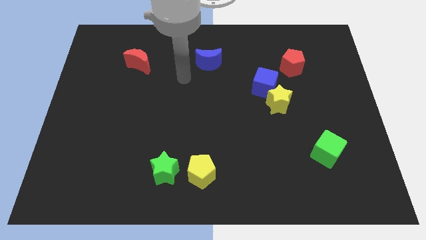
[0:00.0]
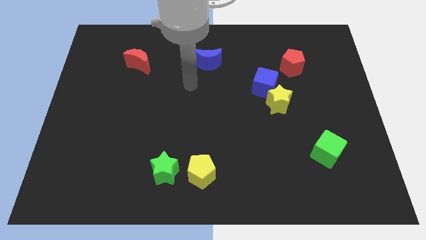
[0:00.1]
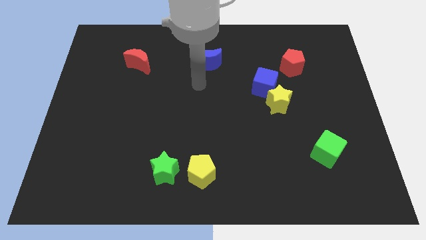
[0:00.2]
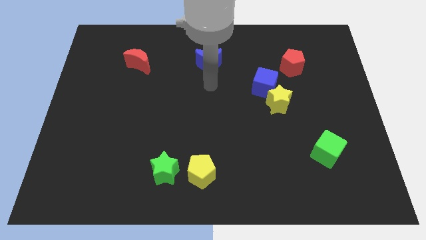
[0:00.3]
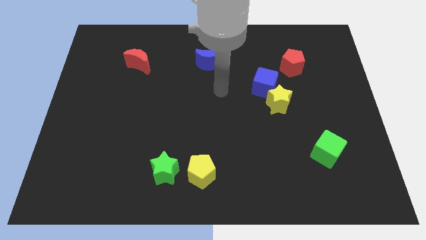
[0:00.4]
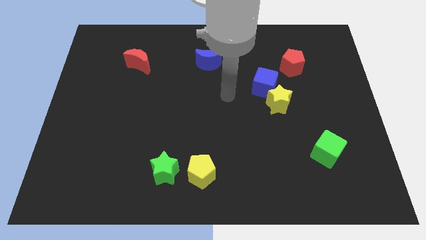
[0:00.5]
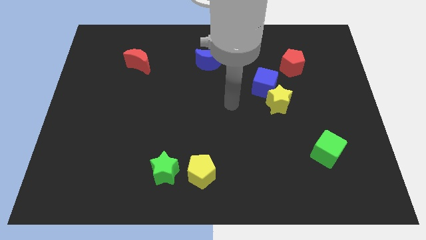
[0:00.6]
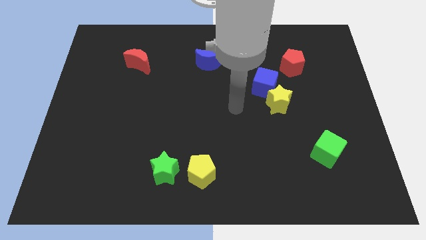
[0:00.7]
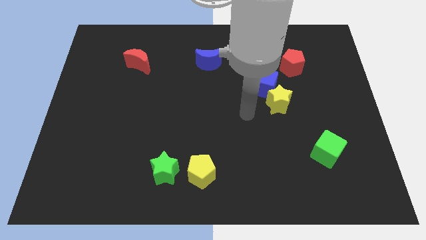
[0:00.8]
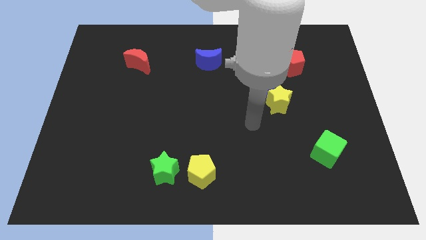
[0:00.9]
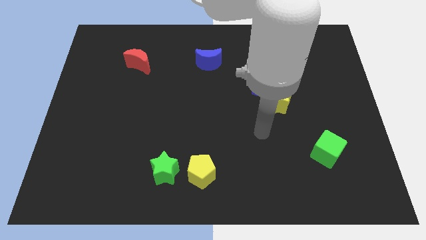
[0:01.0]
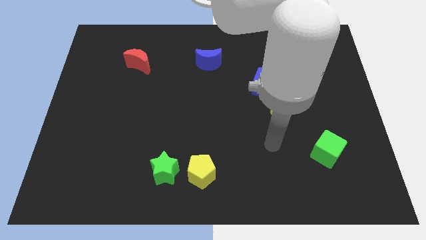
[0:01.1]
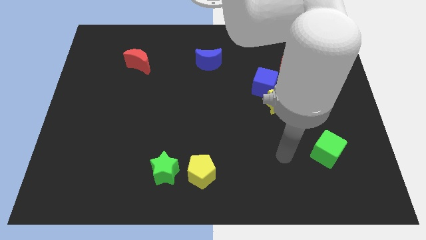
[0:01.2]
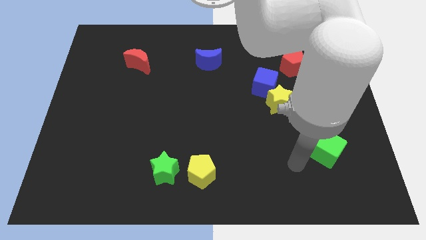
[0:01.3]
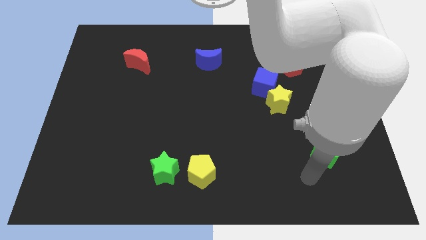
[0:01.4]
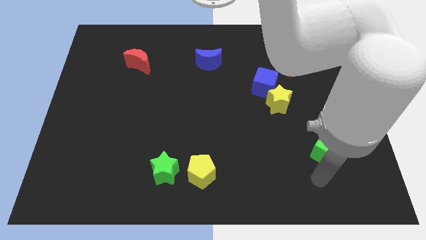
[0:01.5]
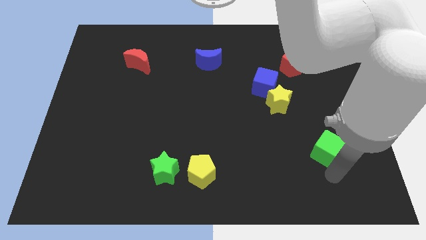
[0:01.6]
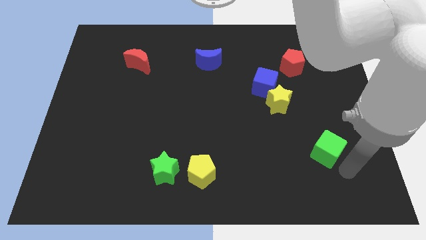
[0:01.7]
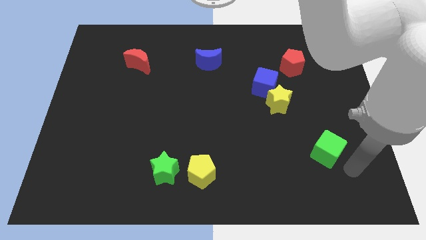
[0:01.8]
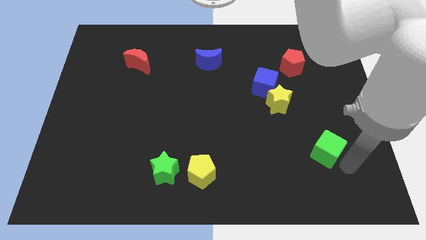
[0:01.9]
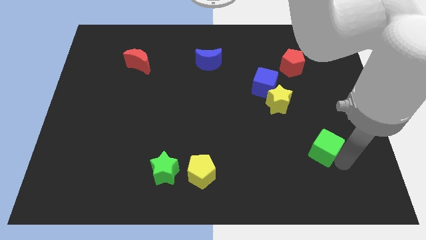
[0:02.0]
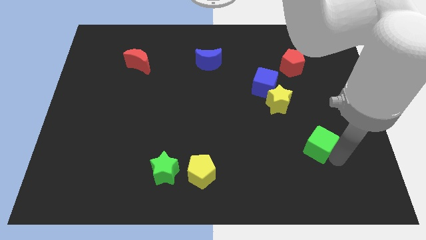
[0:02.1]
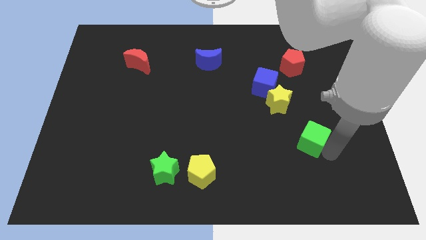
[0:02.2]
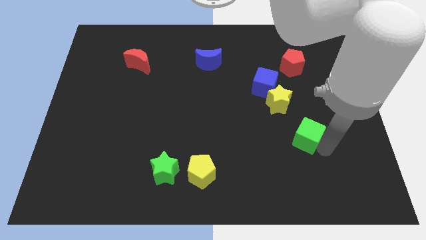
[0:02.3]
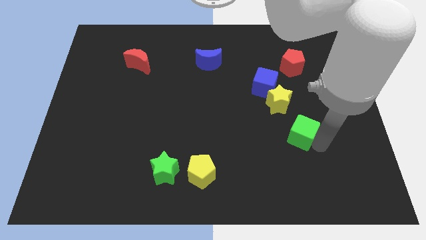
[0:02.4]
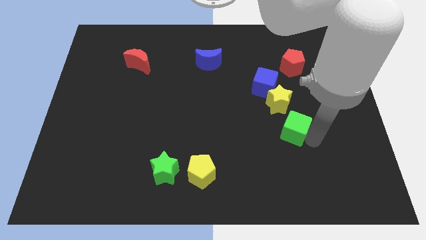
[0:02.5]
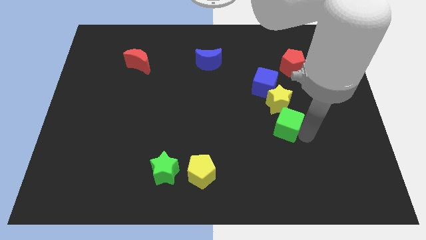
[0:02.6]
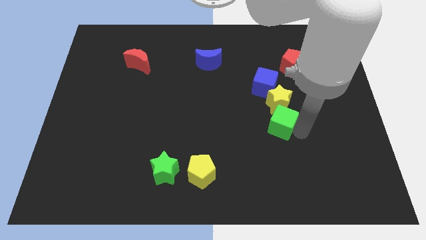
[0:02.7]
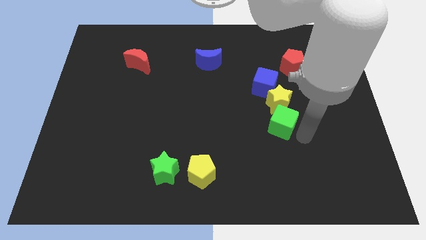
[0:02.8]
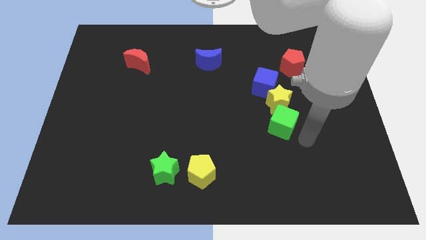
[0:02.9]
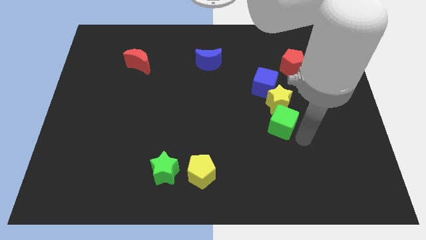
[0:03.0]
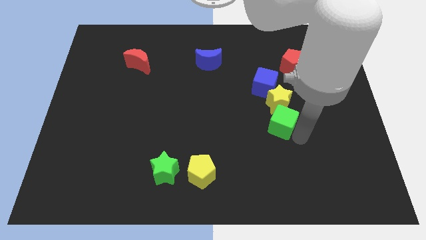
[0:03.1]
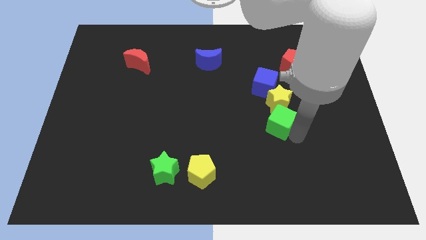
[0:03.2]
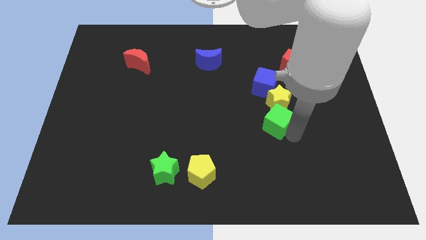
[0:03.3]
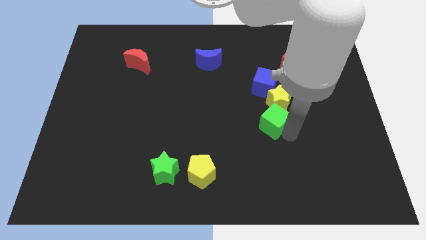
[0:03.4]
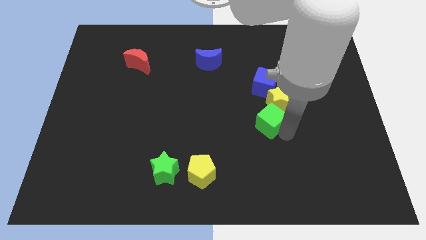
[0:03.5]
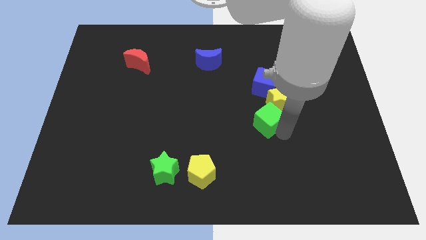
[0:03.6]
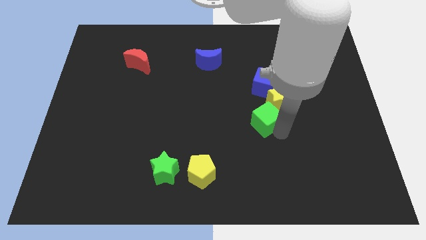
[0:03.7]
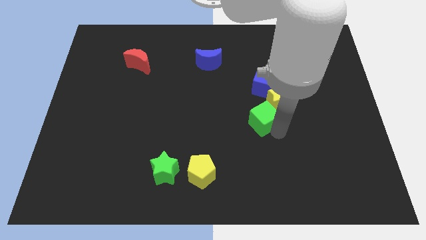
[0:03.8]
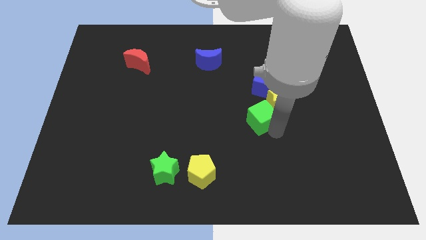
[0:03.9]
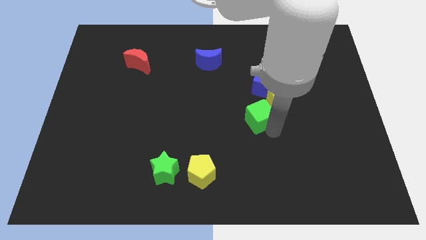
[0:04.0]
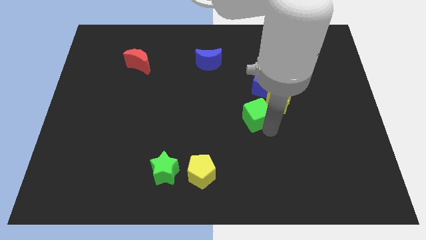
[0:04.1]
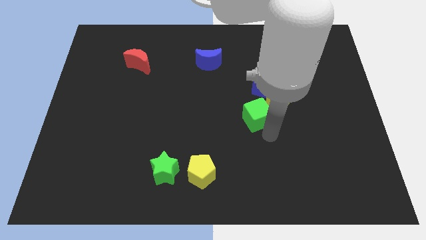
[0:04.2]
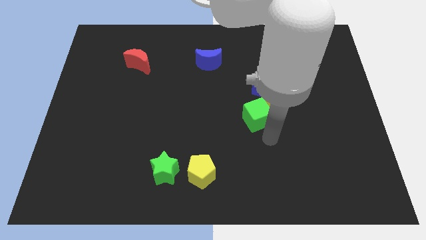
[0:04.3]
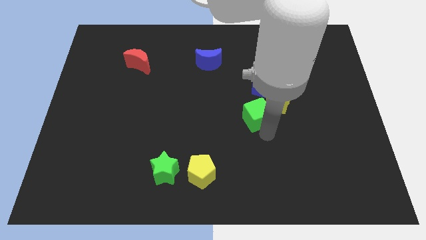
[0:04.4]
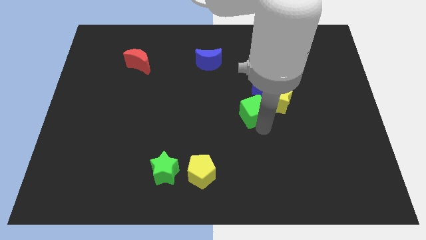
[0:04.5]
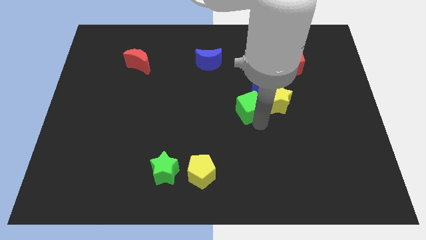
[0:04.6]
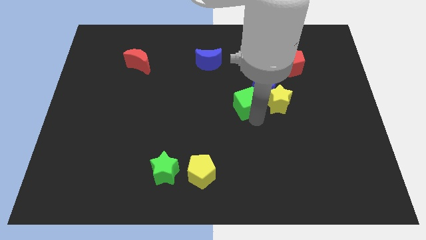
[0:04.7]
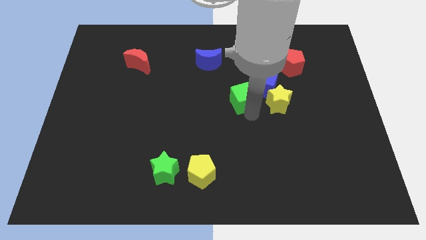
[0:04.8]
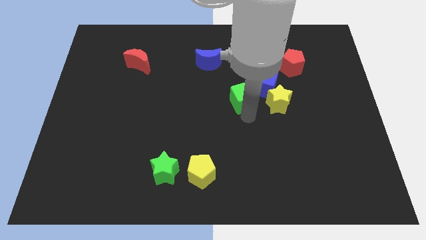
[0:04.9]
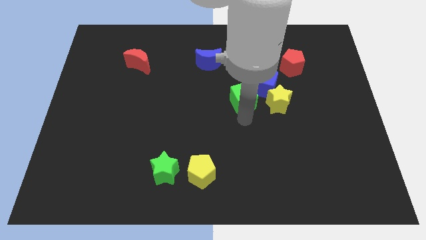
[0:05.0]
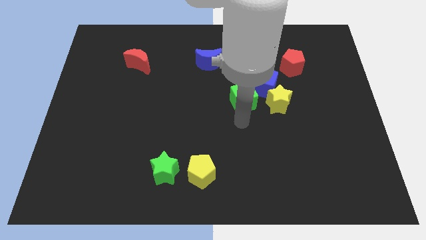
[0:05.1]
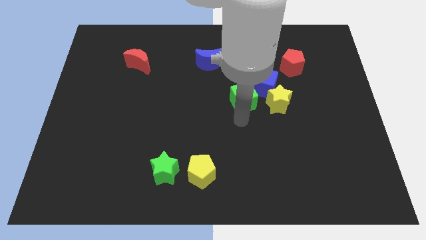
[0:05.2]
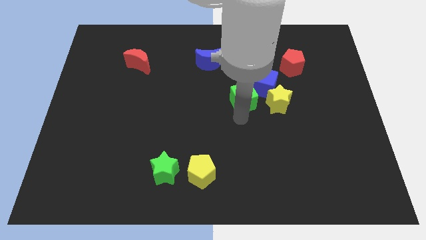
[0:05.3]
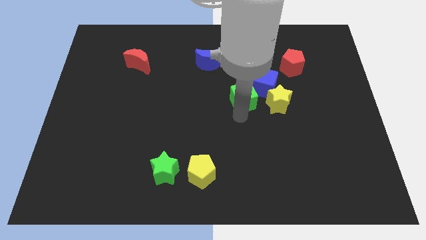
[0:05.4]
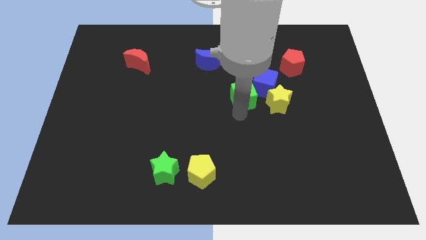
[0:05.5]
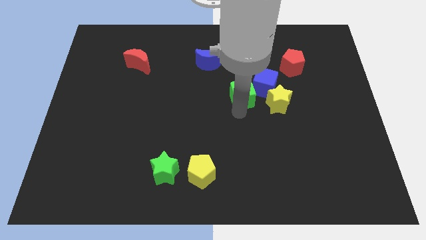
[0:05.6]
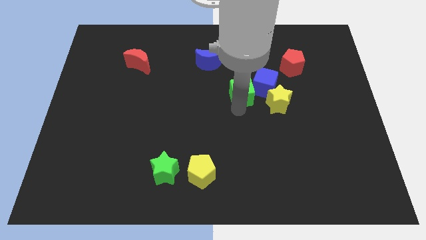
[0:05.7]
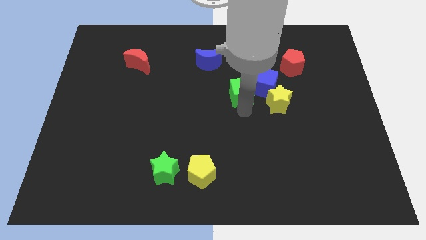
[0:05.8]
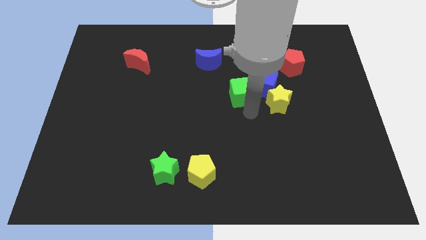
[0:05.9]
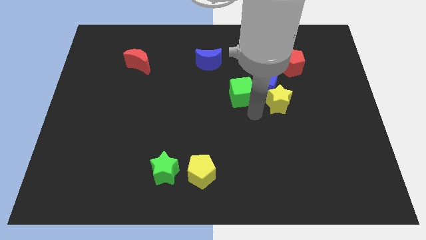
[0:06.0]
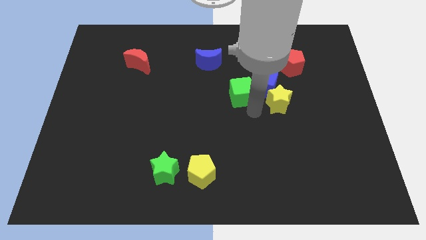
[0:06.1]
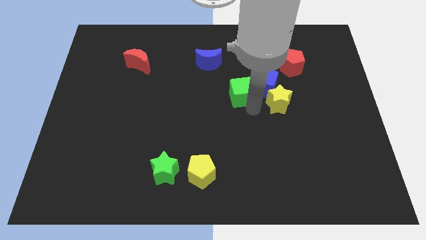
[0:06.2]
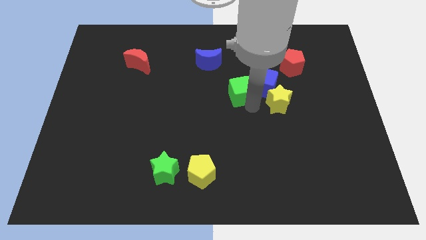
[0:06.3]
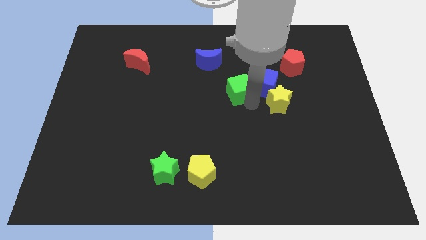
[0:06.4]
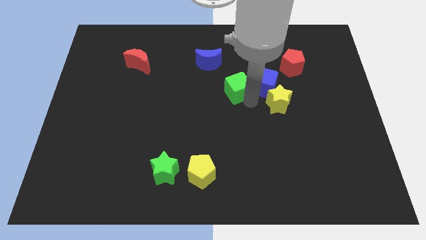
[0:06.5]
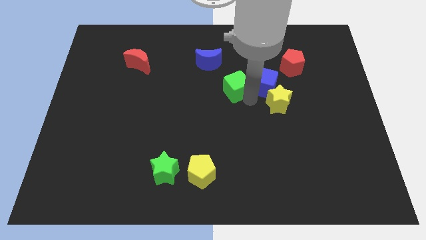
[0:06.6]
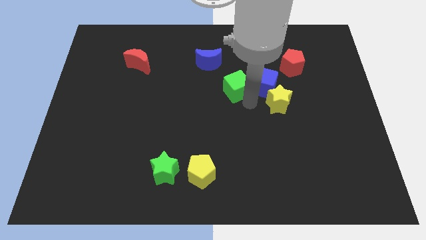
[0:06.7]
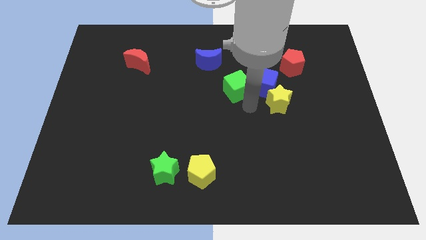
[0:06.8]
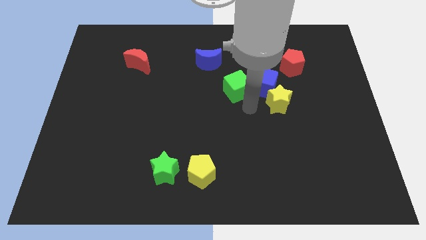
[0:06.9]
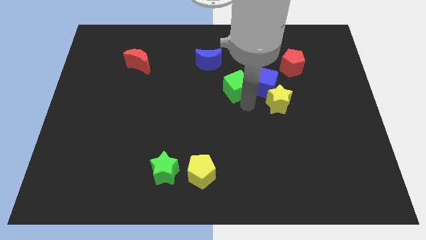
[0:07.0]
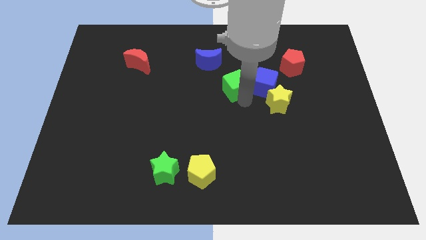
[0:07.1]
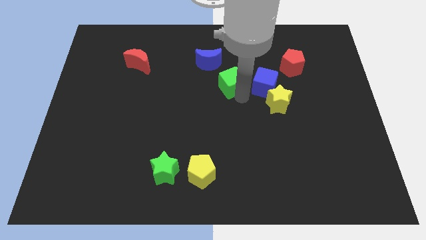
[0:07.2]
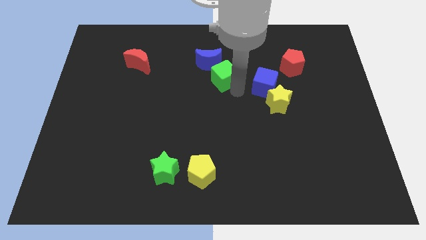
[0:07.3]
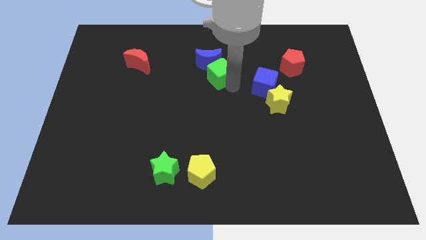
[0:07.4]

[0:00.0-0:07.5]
push the green cube close to the blue moon
